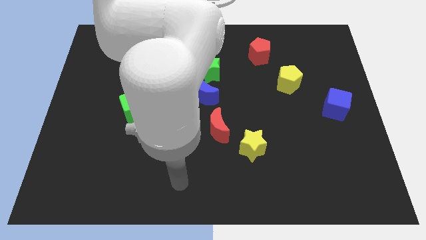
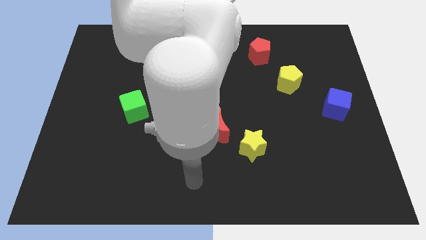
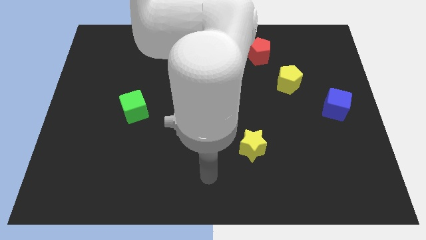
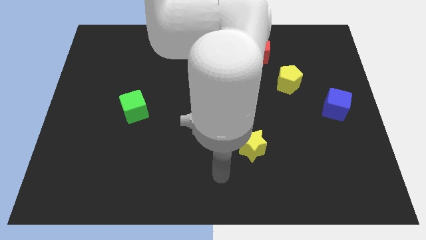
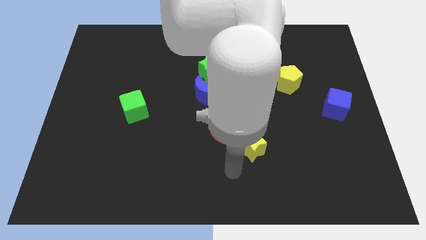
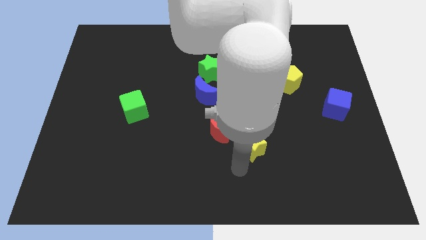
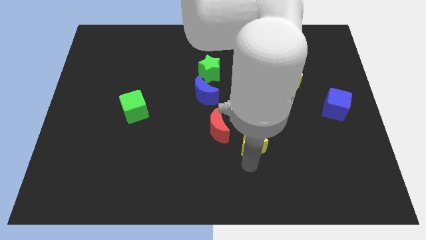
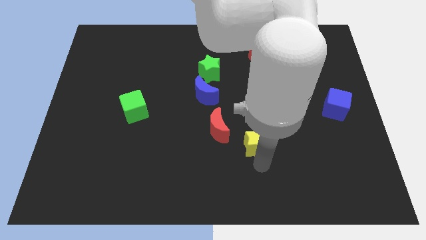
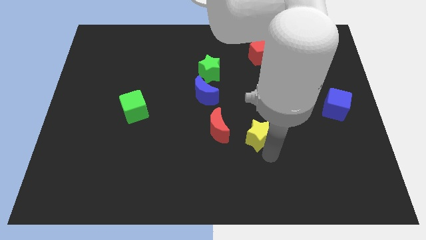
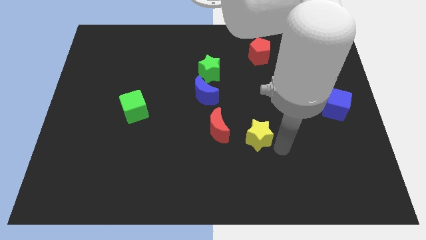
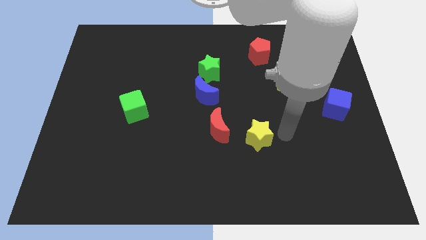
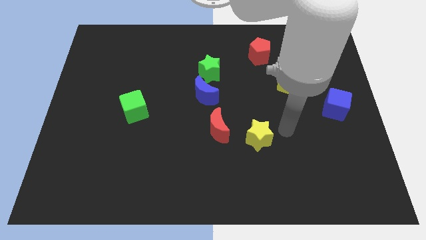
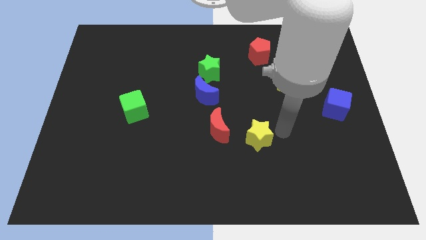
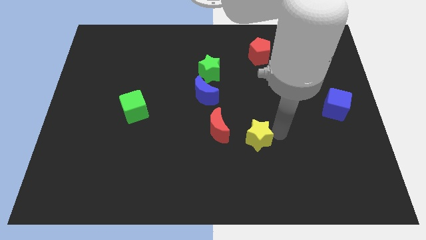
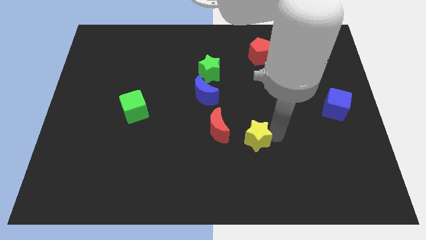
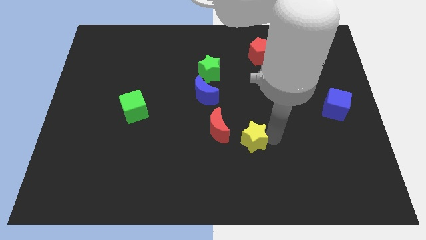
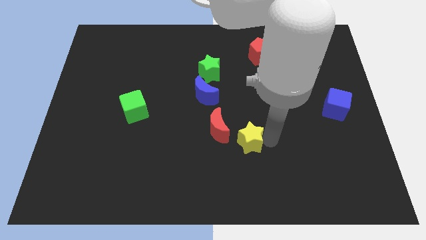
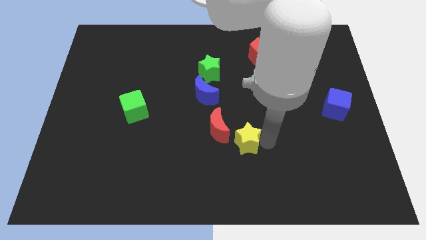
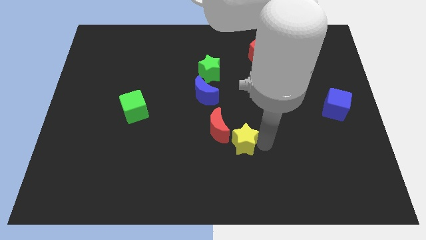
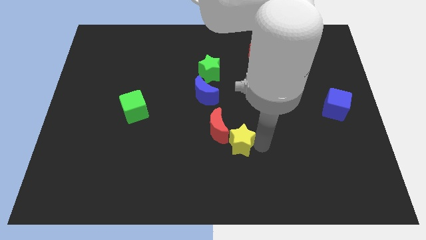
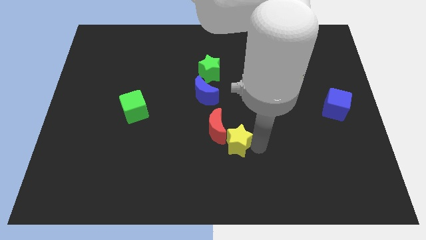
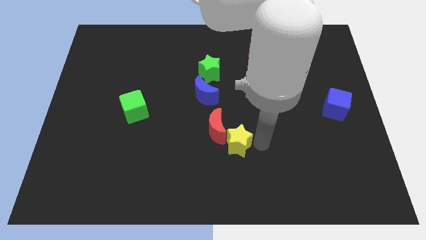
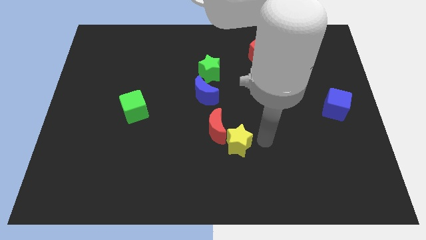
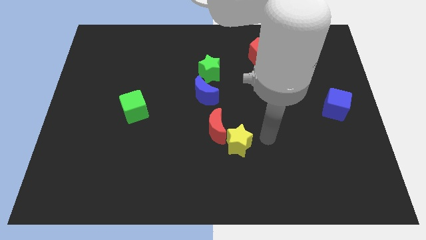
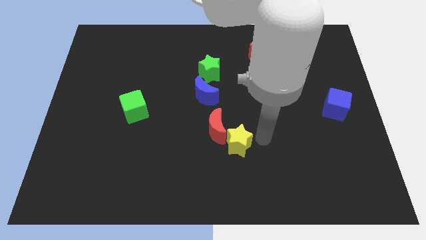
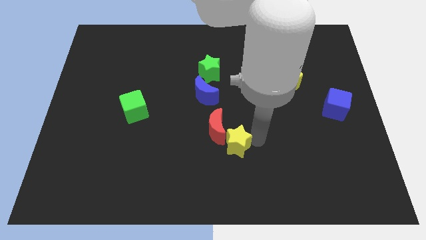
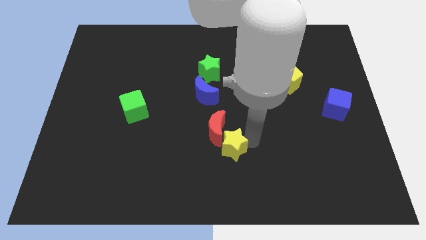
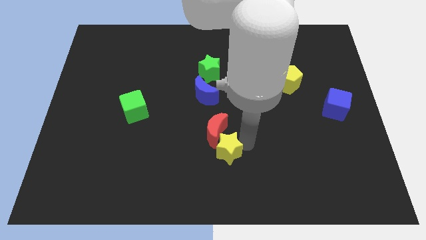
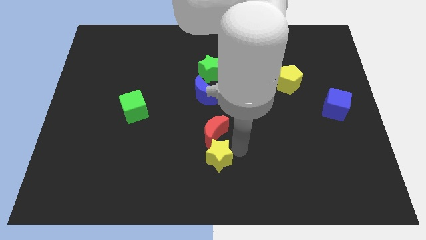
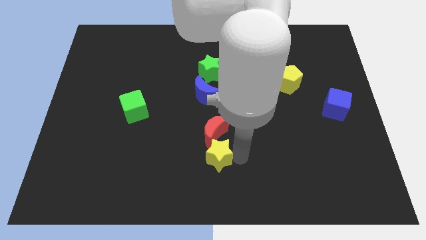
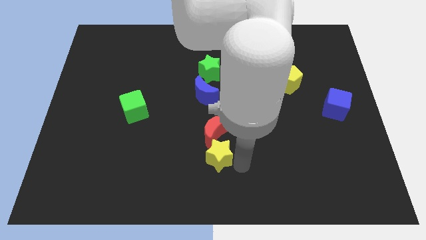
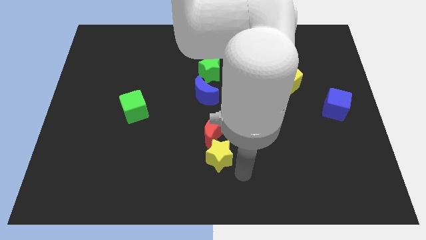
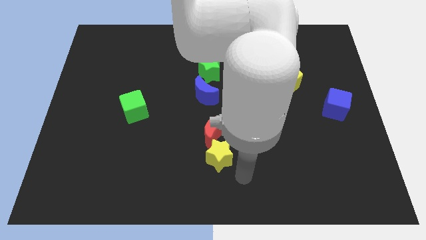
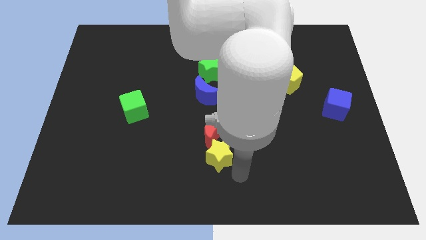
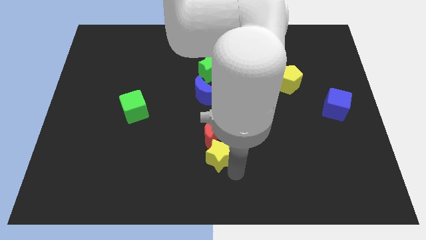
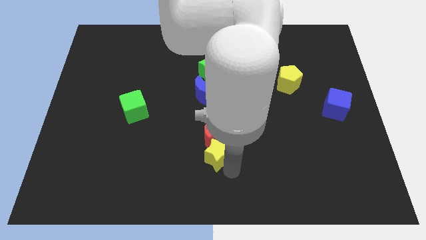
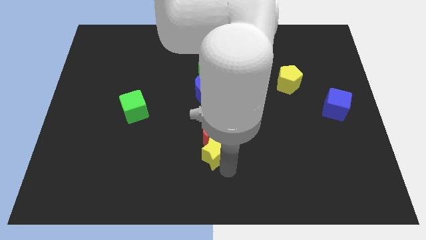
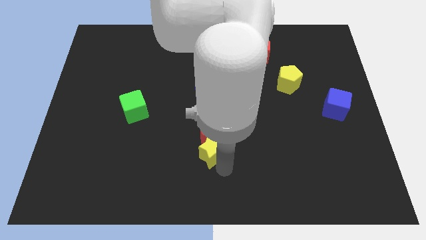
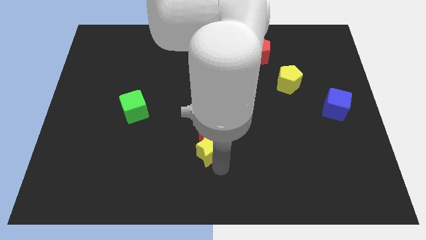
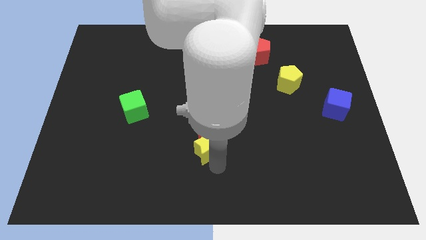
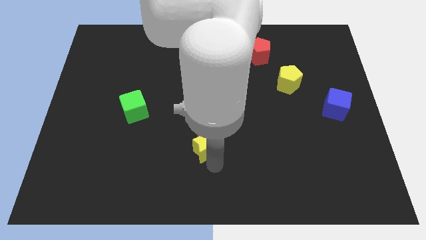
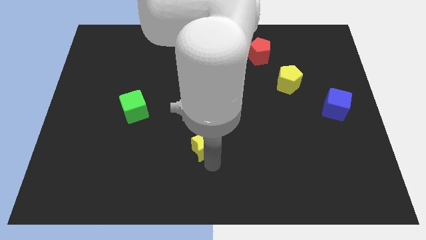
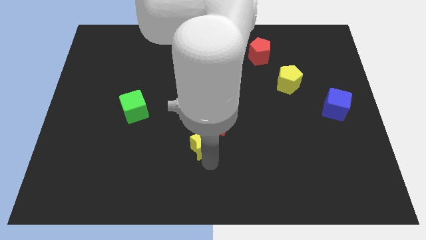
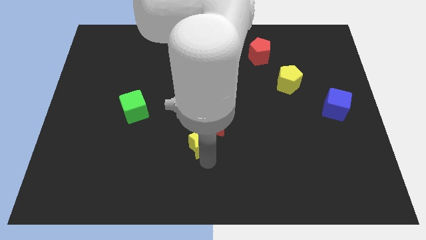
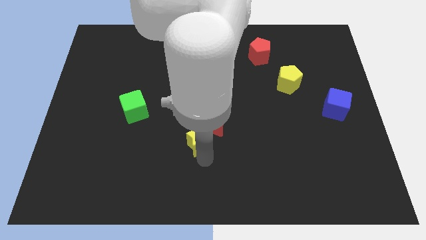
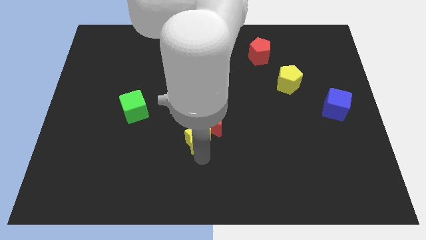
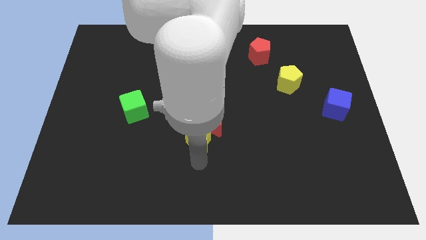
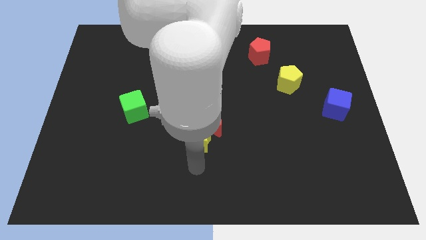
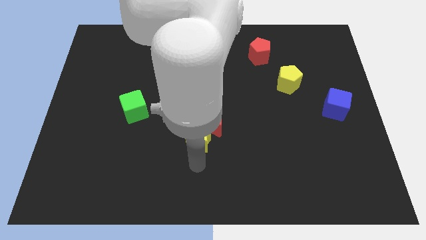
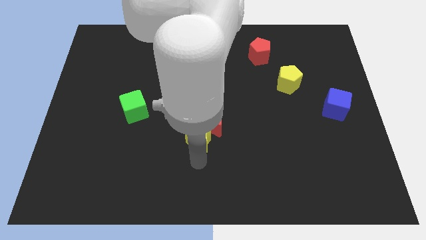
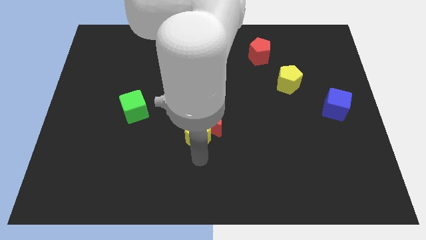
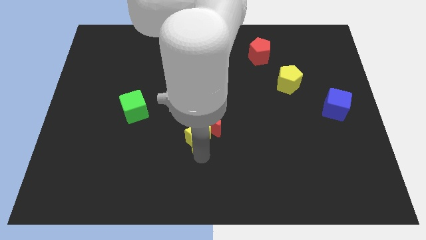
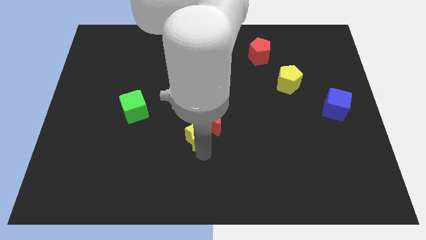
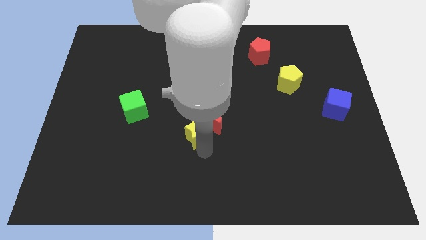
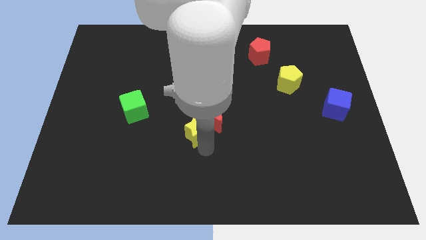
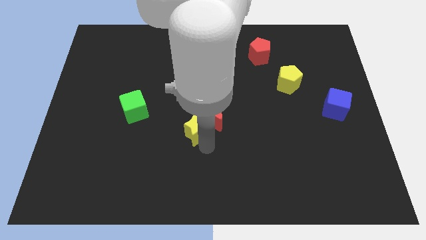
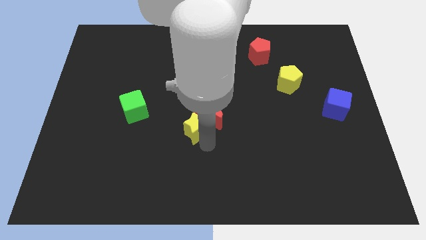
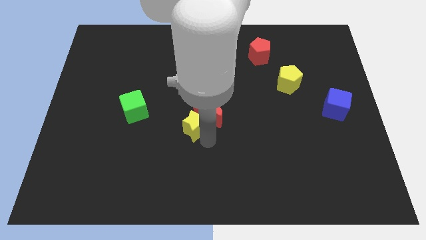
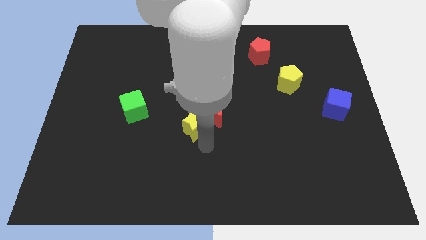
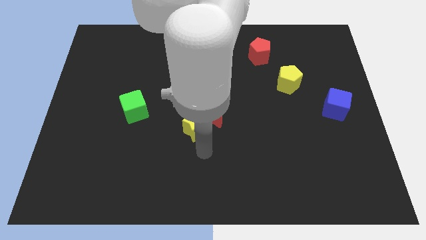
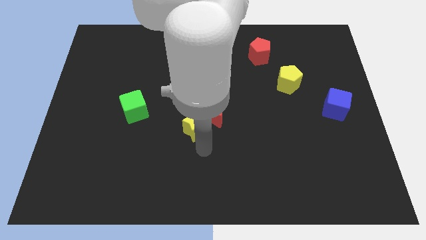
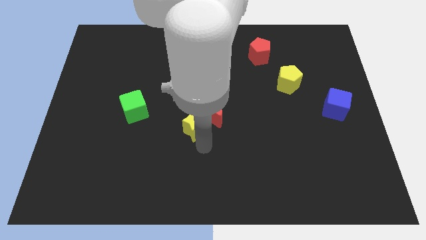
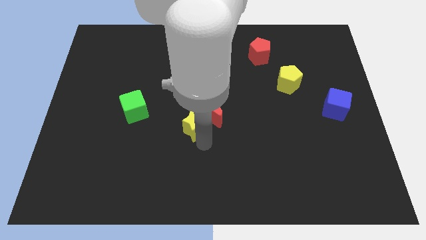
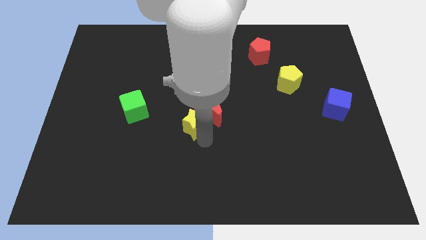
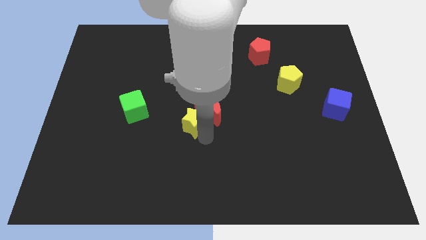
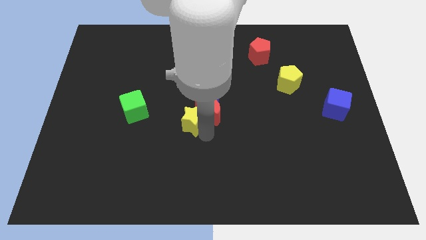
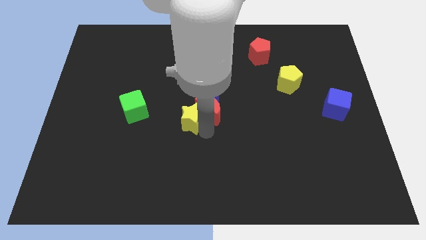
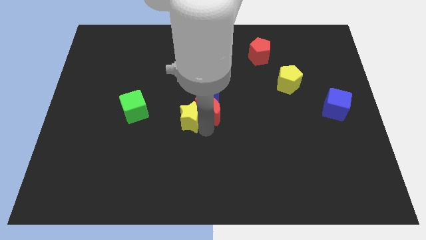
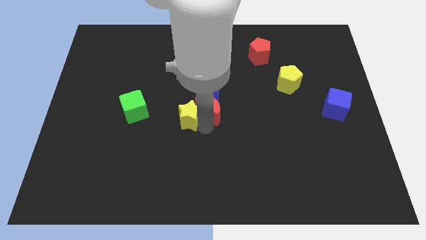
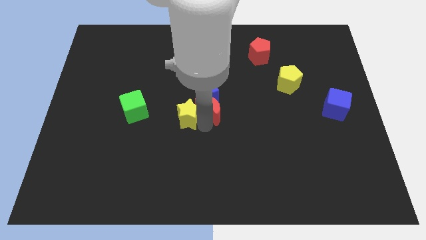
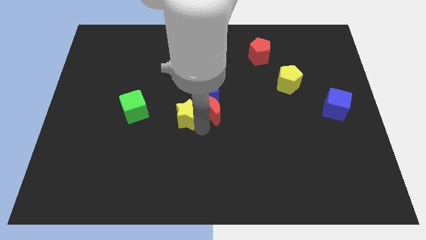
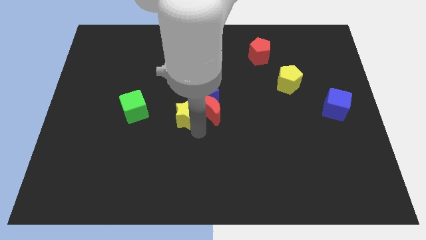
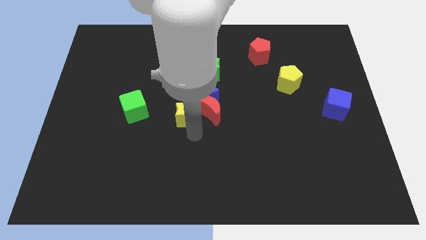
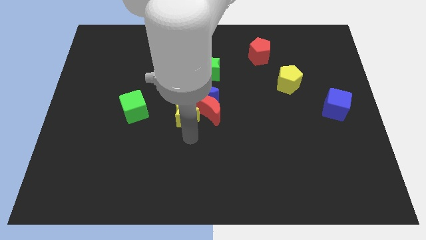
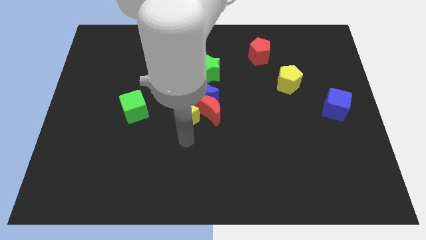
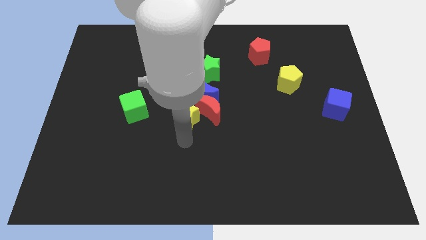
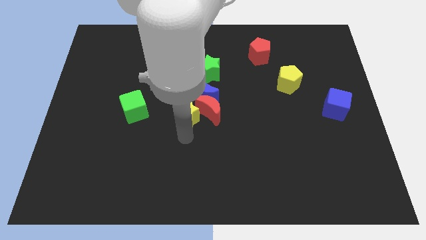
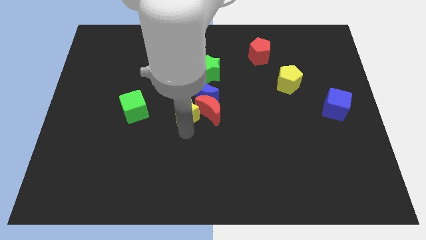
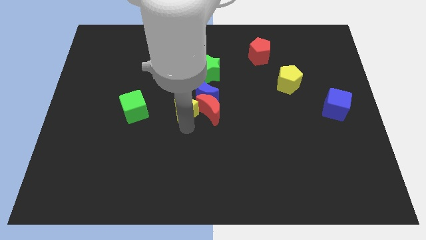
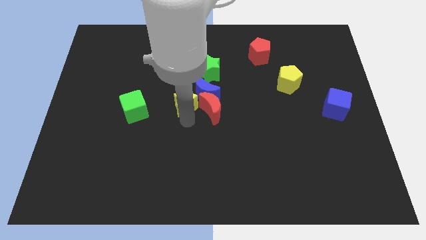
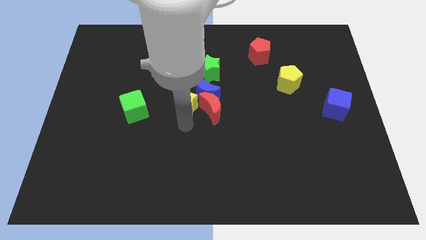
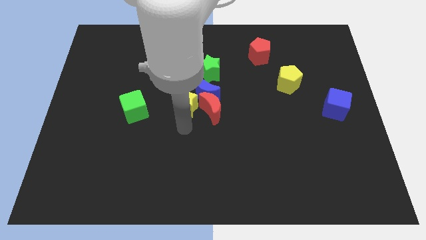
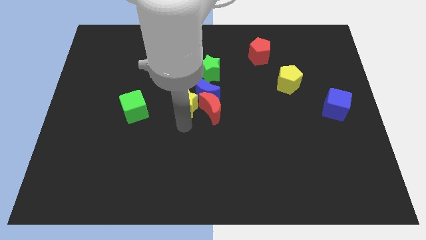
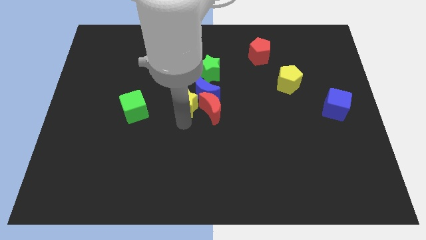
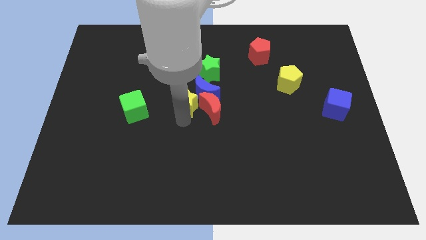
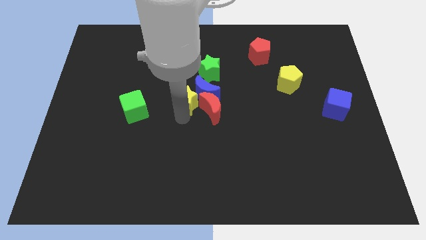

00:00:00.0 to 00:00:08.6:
push the yellow star diagonally down and to the left of the green star
